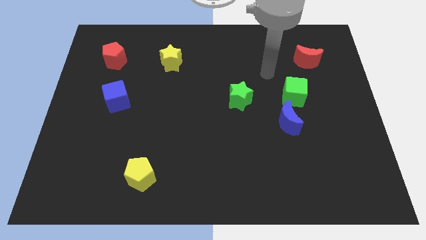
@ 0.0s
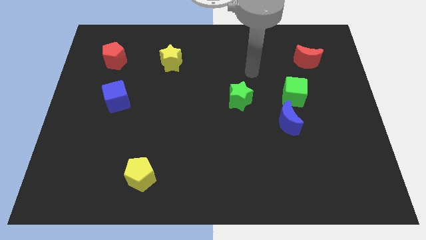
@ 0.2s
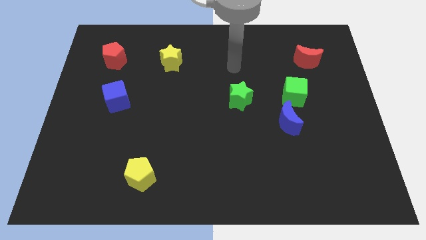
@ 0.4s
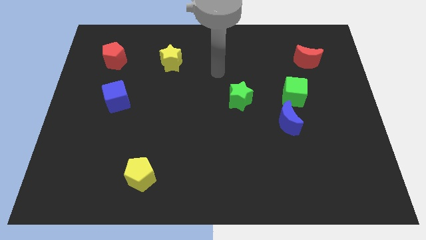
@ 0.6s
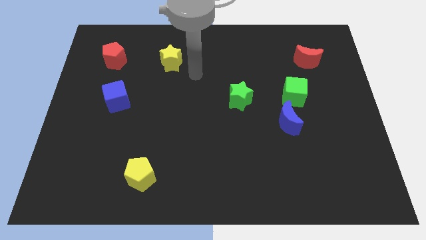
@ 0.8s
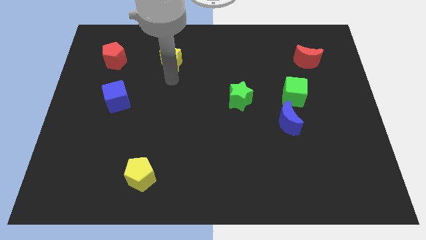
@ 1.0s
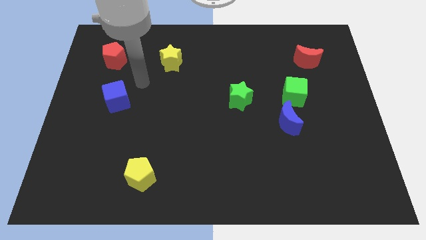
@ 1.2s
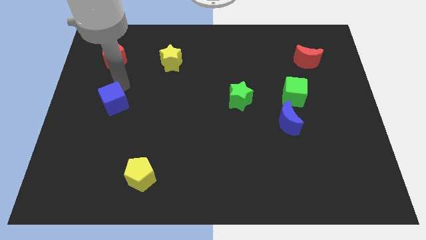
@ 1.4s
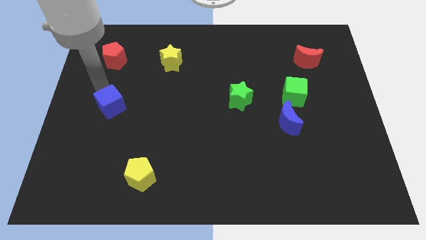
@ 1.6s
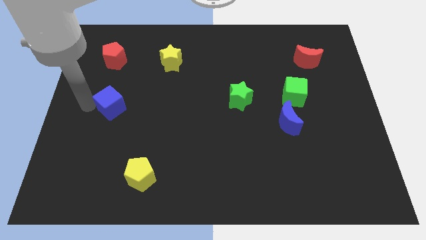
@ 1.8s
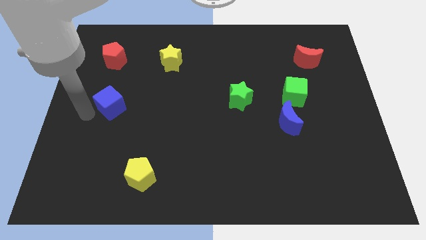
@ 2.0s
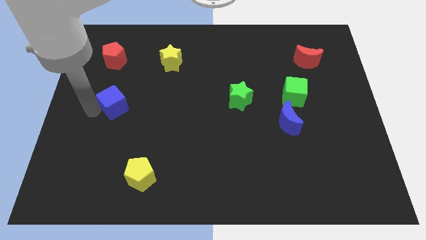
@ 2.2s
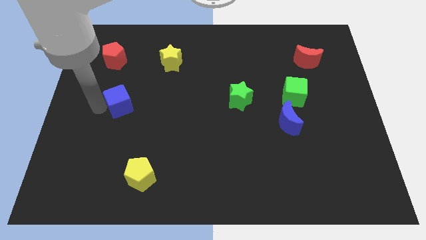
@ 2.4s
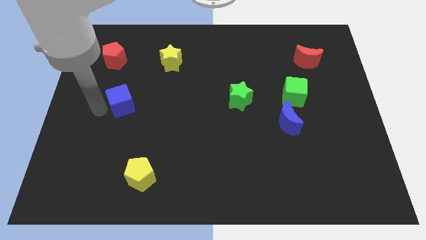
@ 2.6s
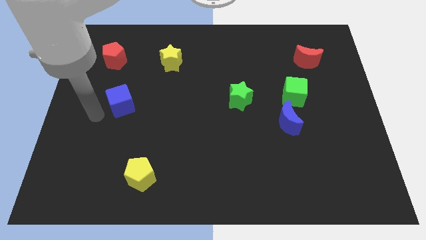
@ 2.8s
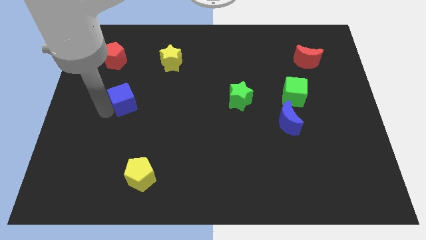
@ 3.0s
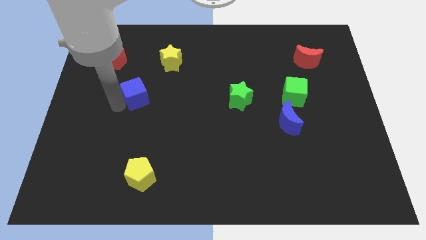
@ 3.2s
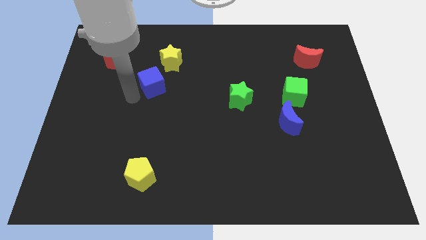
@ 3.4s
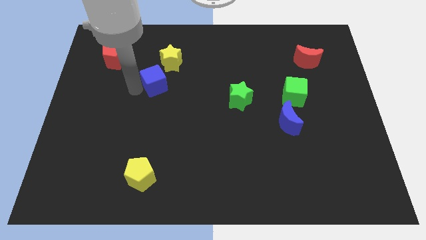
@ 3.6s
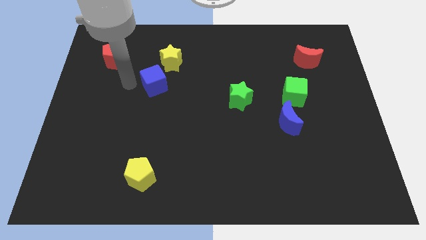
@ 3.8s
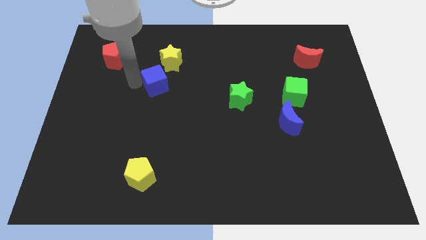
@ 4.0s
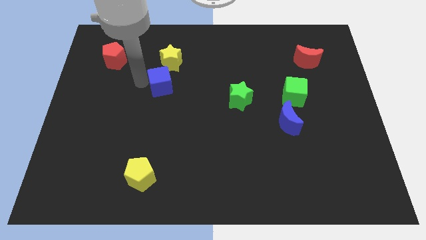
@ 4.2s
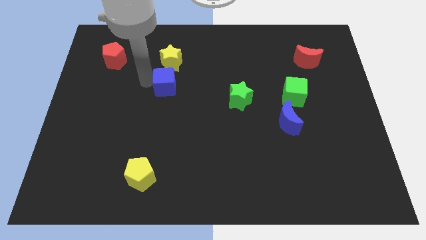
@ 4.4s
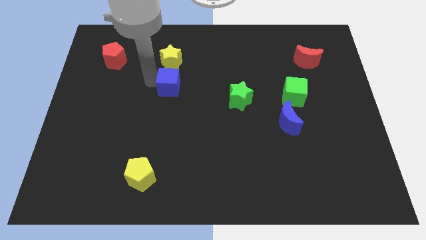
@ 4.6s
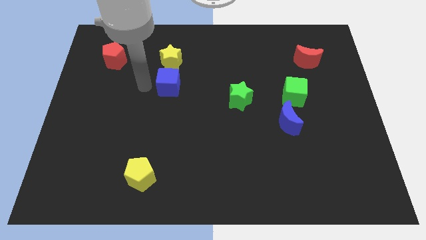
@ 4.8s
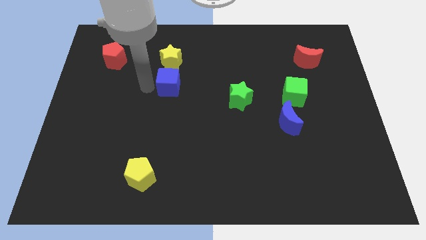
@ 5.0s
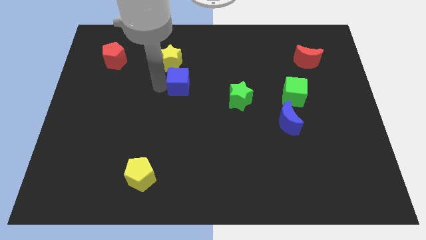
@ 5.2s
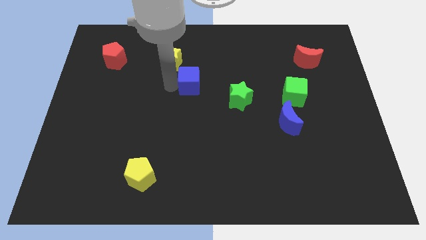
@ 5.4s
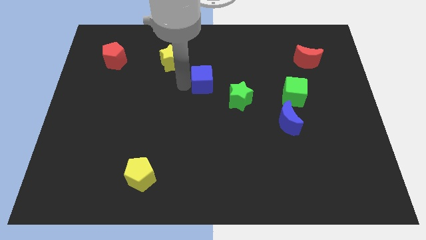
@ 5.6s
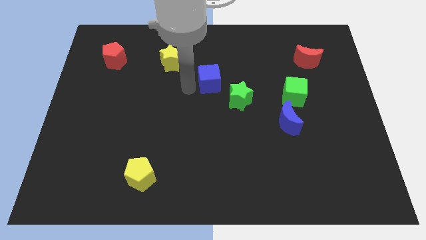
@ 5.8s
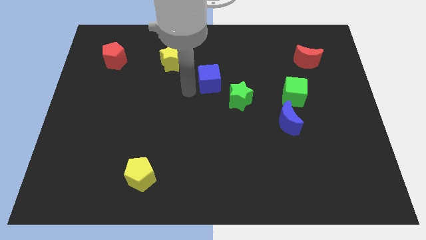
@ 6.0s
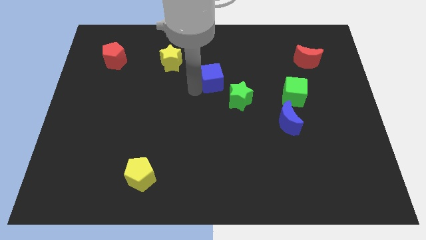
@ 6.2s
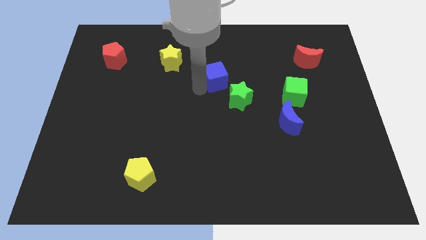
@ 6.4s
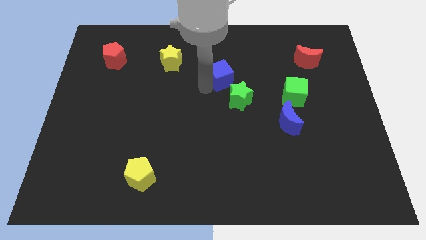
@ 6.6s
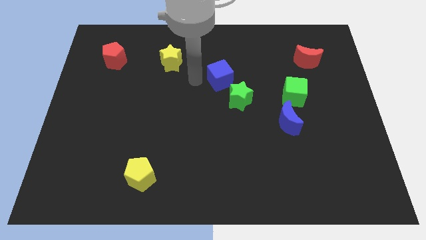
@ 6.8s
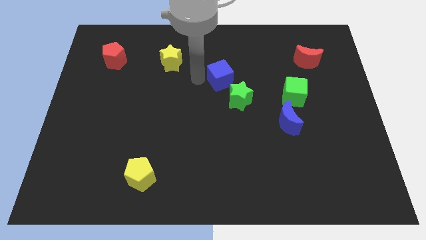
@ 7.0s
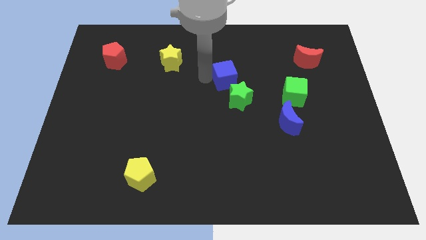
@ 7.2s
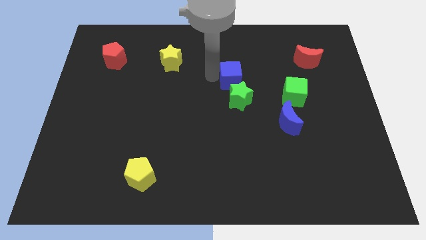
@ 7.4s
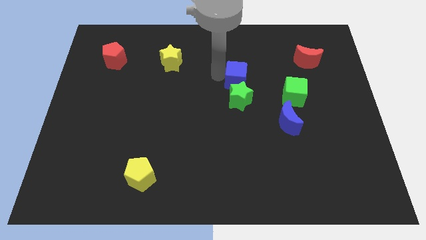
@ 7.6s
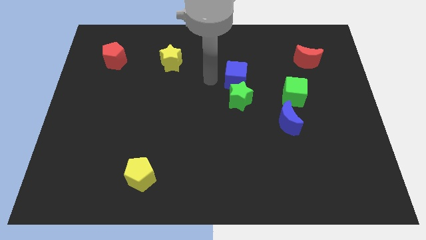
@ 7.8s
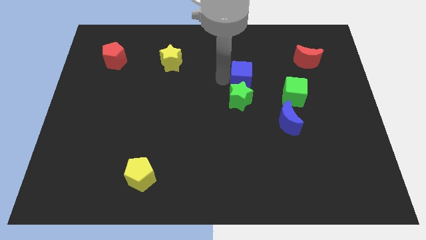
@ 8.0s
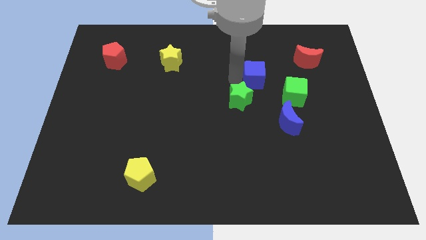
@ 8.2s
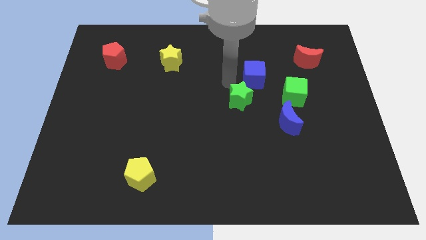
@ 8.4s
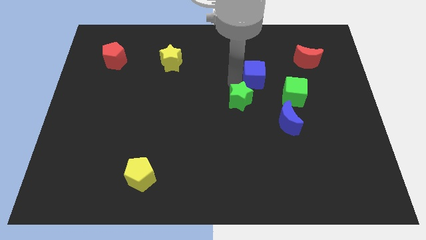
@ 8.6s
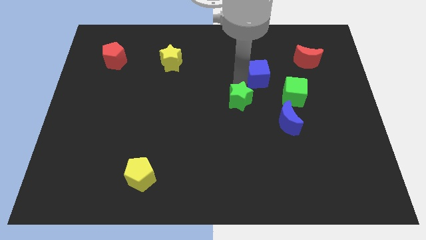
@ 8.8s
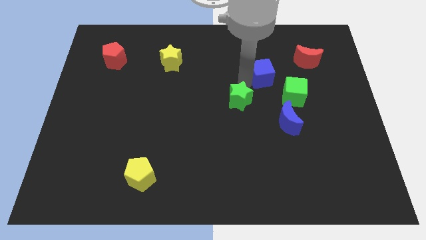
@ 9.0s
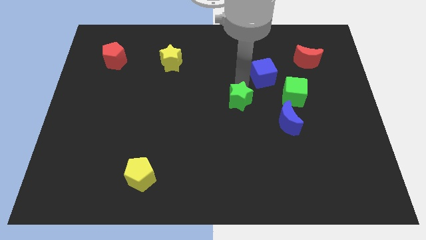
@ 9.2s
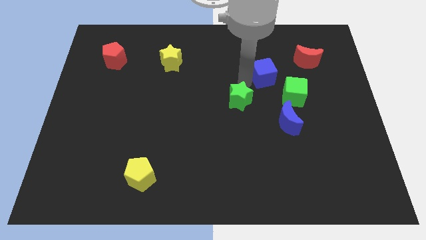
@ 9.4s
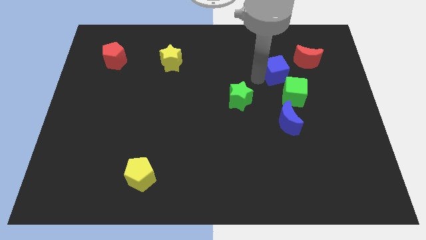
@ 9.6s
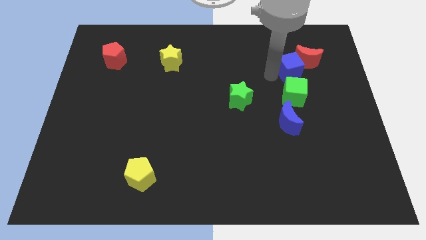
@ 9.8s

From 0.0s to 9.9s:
put the blue cube close to the red moon

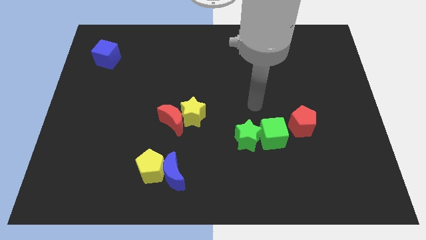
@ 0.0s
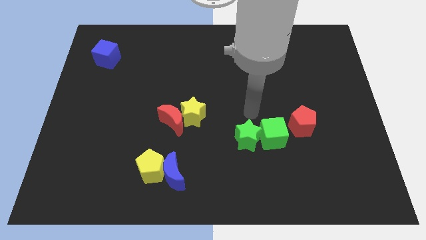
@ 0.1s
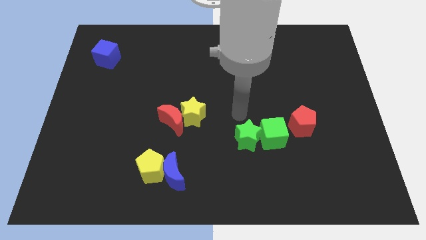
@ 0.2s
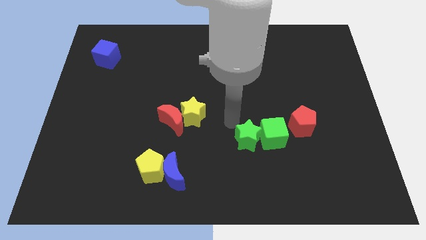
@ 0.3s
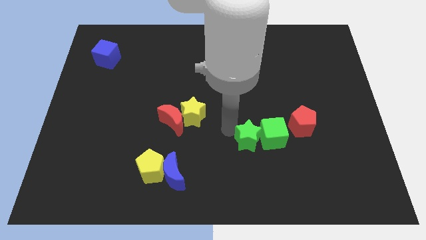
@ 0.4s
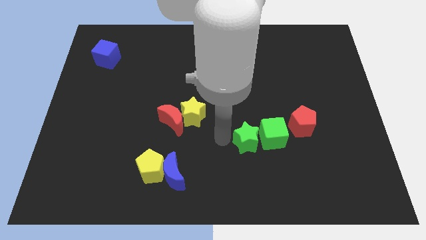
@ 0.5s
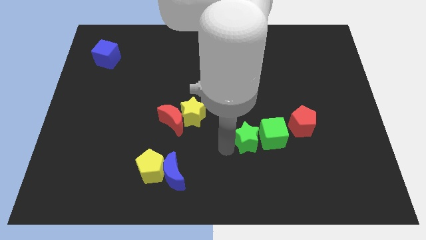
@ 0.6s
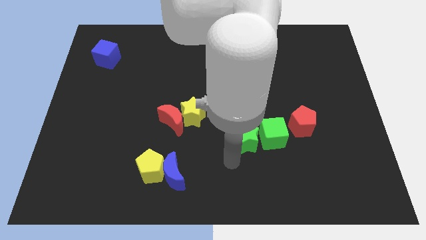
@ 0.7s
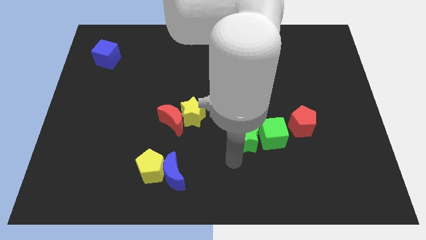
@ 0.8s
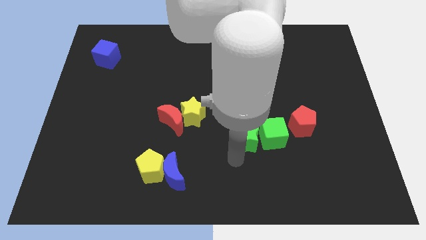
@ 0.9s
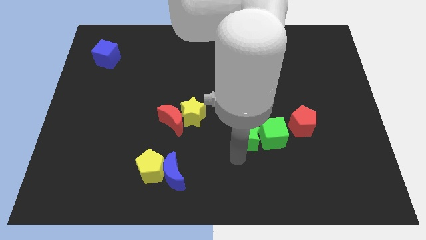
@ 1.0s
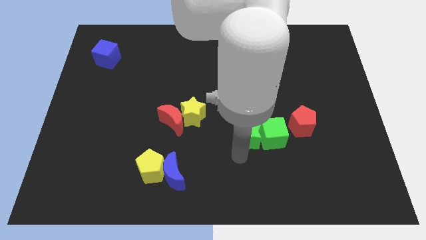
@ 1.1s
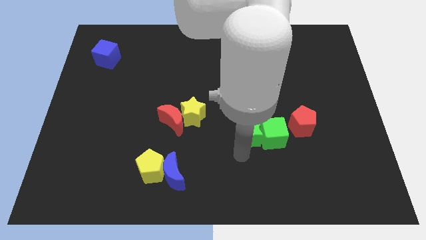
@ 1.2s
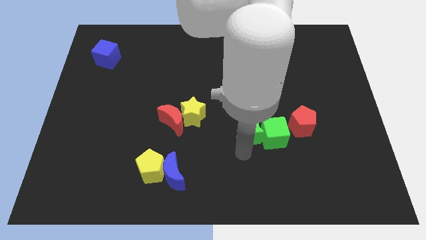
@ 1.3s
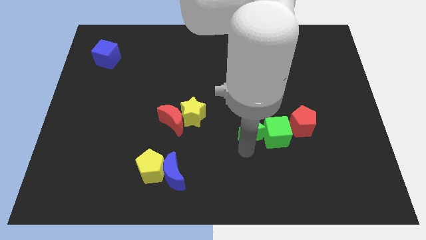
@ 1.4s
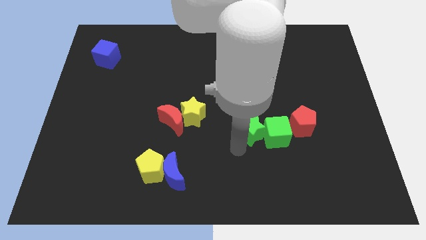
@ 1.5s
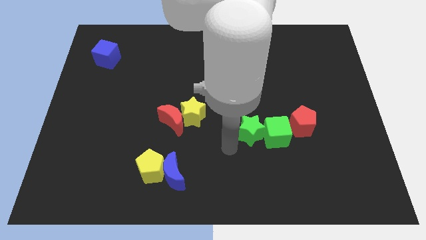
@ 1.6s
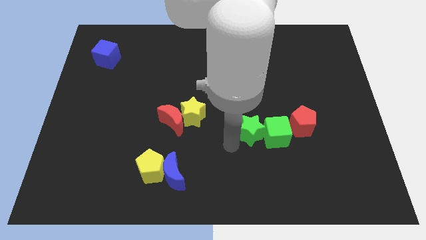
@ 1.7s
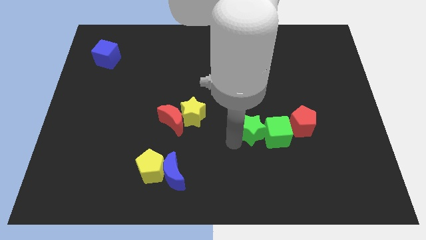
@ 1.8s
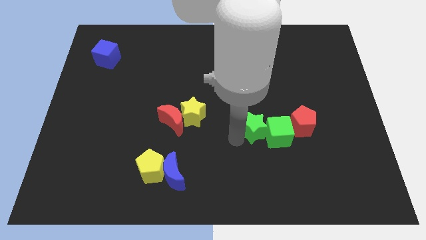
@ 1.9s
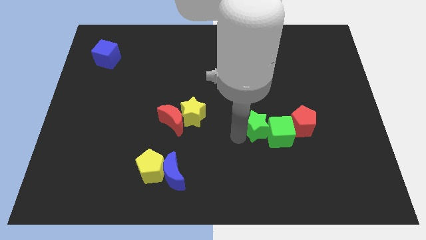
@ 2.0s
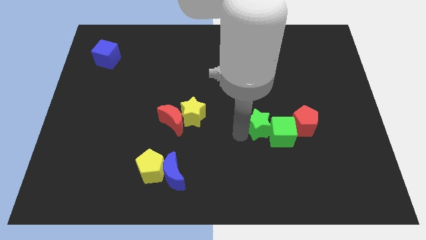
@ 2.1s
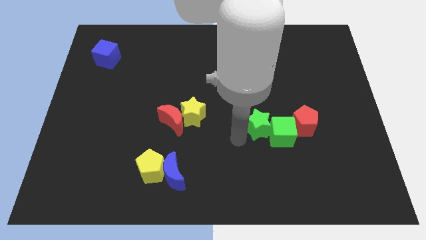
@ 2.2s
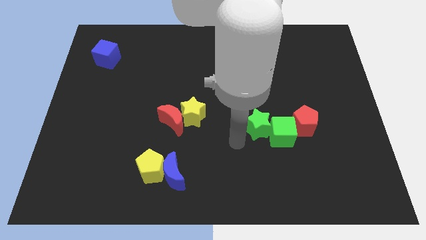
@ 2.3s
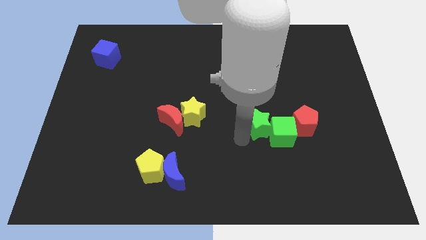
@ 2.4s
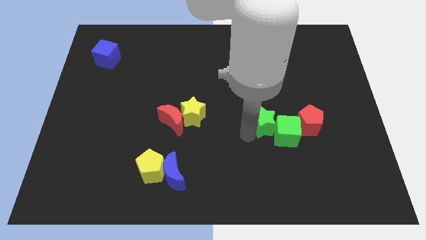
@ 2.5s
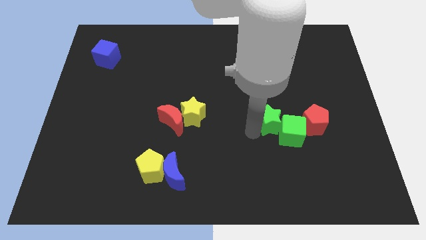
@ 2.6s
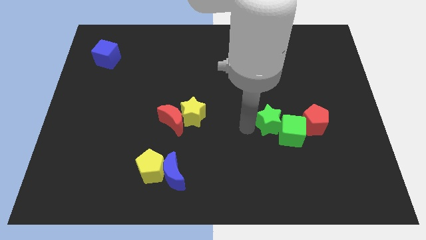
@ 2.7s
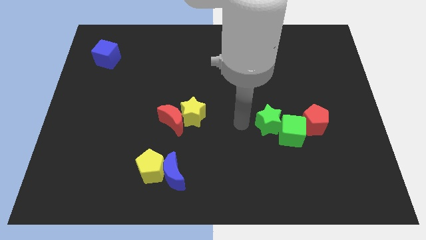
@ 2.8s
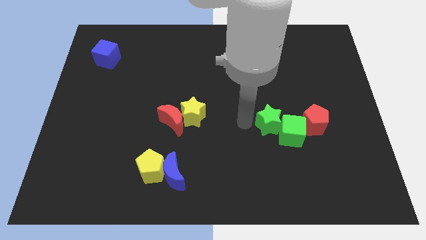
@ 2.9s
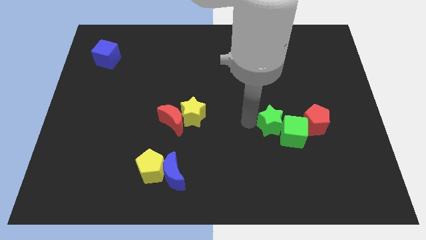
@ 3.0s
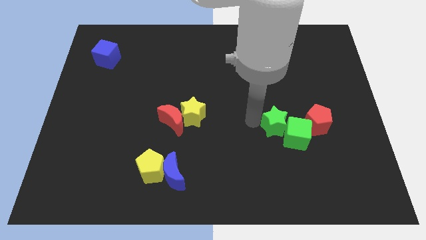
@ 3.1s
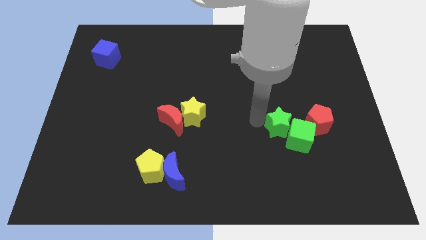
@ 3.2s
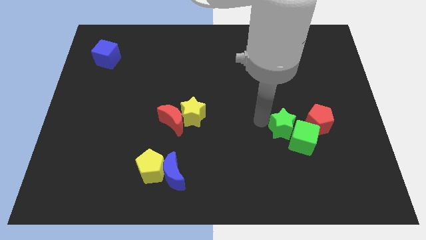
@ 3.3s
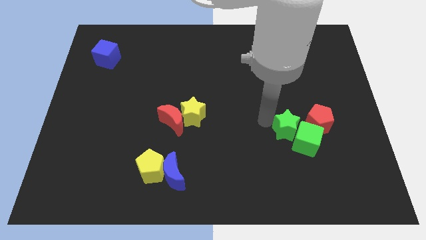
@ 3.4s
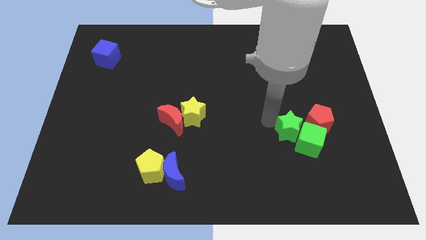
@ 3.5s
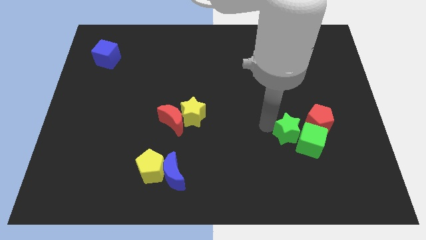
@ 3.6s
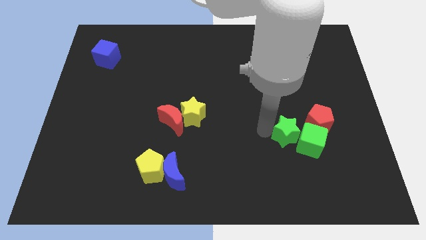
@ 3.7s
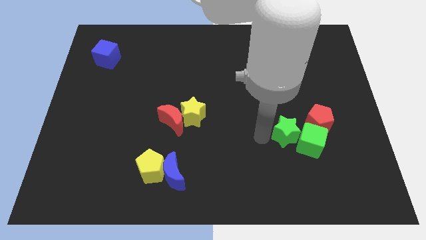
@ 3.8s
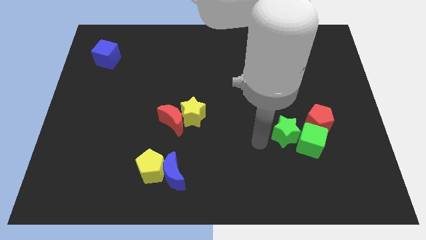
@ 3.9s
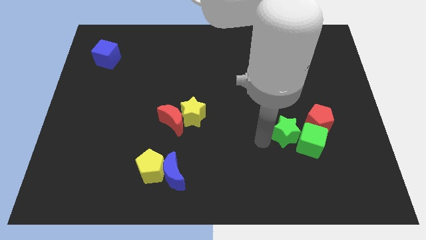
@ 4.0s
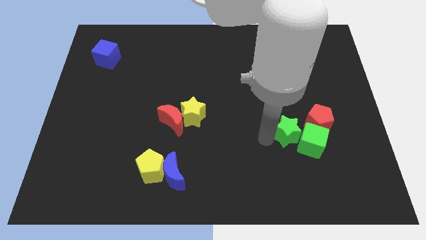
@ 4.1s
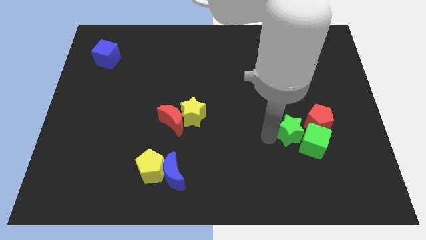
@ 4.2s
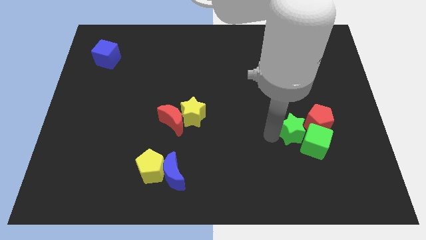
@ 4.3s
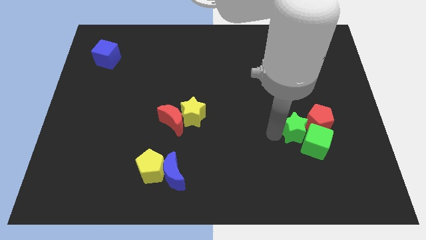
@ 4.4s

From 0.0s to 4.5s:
push the green star towards the red pentagon
